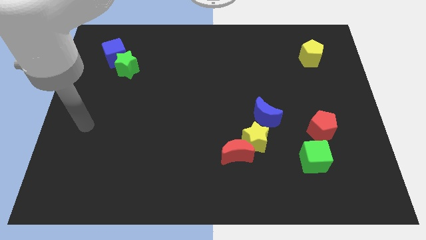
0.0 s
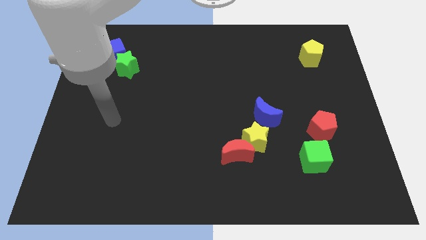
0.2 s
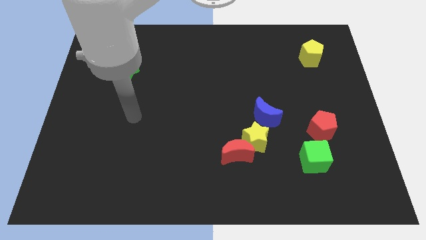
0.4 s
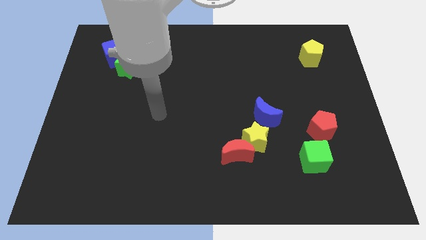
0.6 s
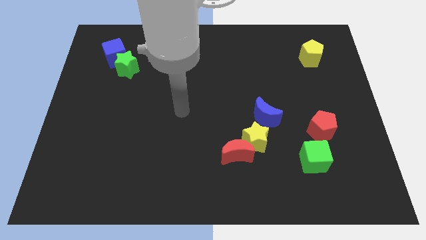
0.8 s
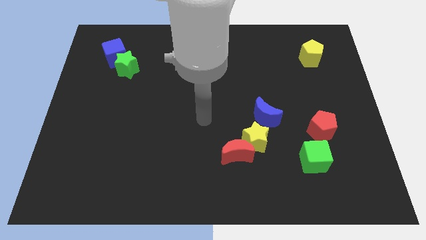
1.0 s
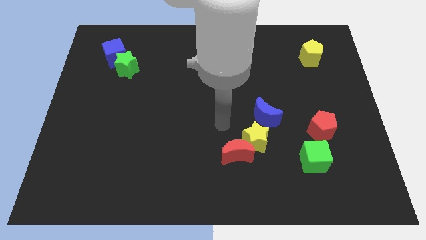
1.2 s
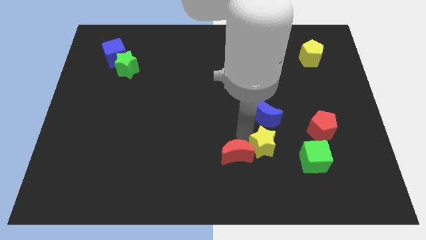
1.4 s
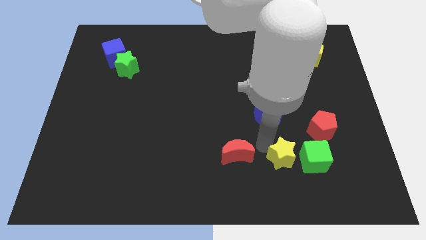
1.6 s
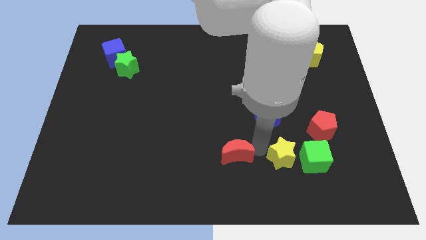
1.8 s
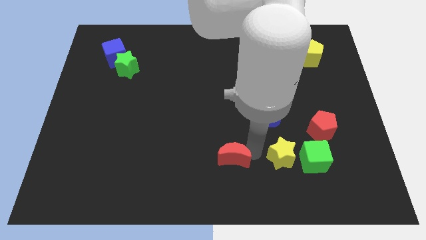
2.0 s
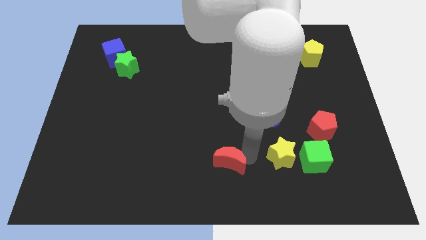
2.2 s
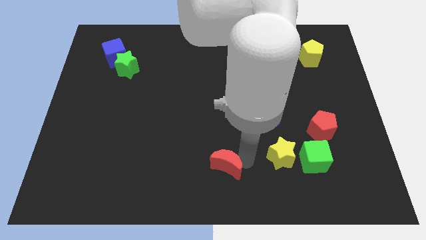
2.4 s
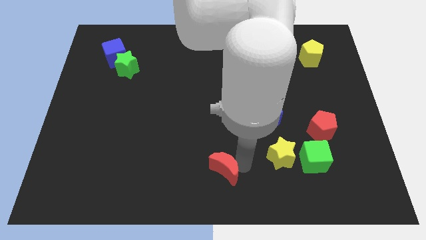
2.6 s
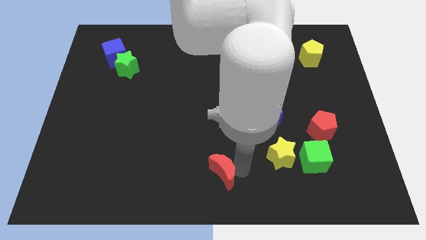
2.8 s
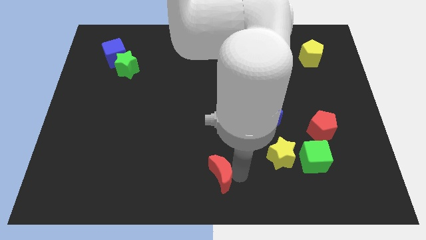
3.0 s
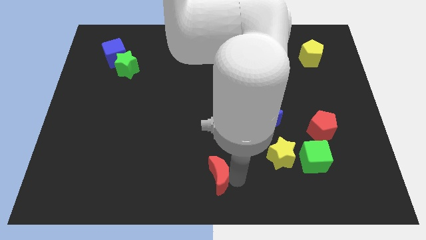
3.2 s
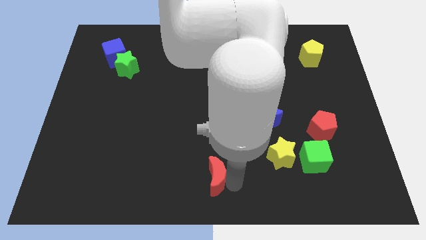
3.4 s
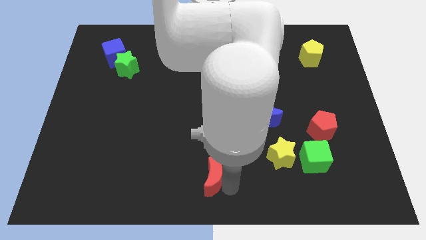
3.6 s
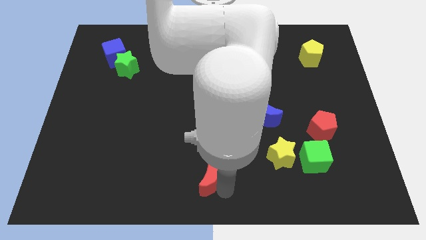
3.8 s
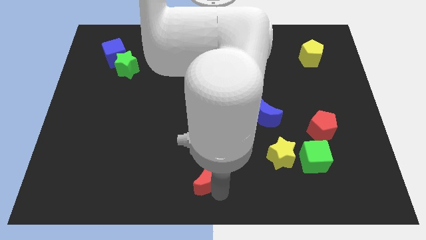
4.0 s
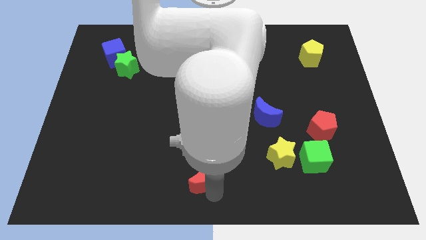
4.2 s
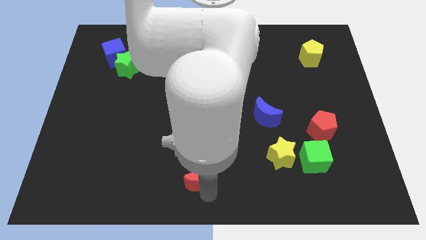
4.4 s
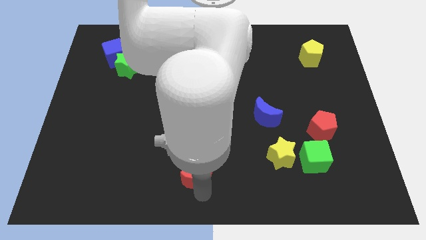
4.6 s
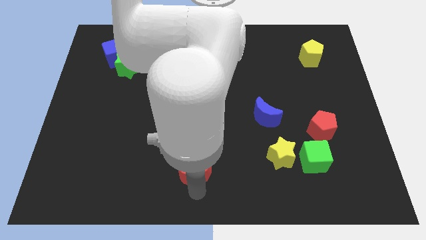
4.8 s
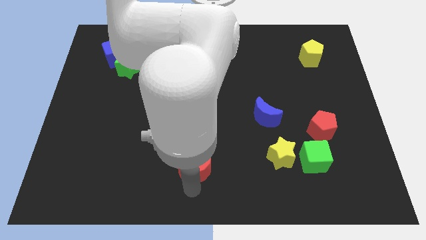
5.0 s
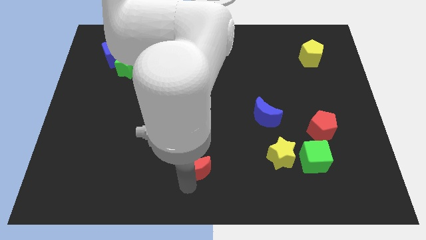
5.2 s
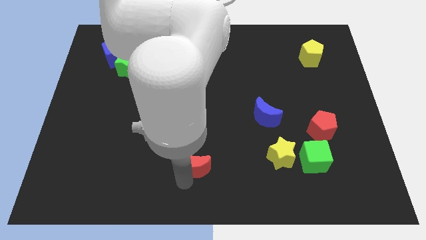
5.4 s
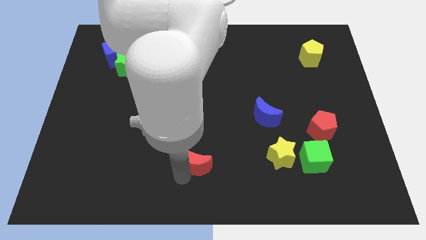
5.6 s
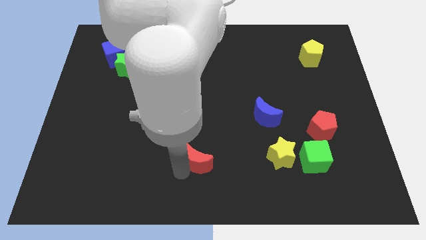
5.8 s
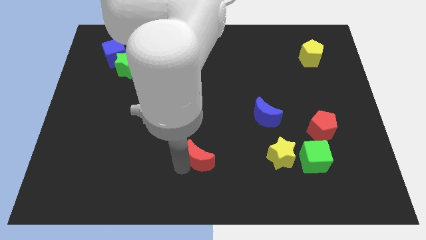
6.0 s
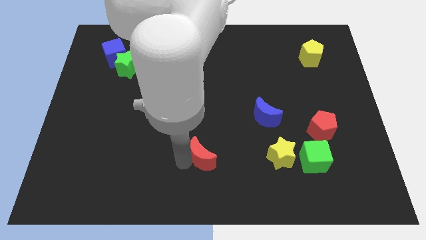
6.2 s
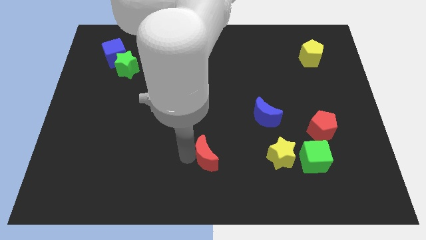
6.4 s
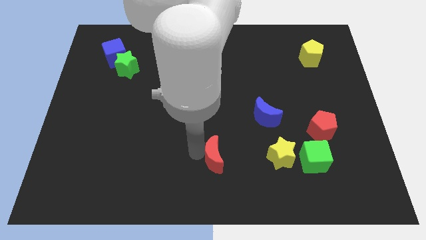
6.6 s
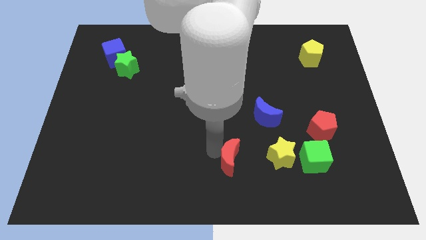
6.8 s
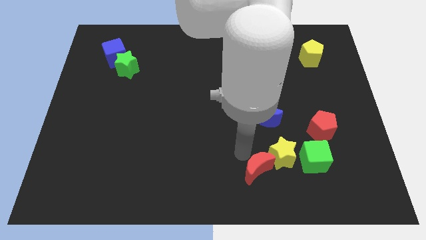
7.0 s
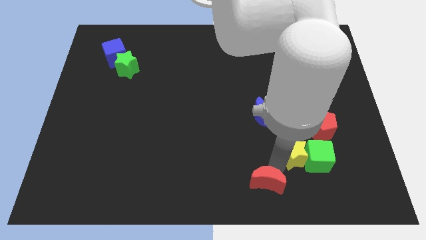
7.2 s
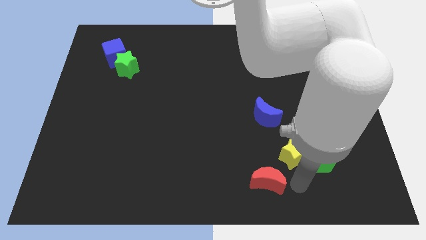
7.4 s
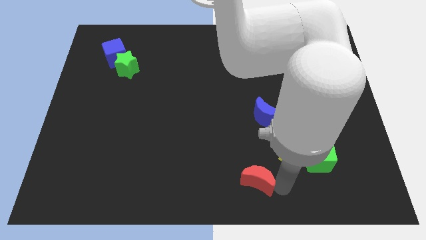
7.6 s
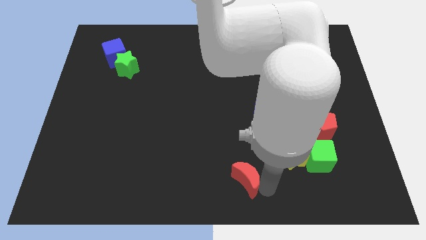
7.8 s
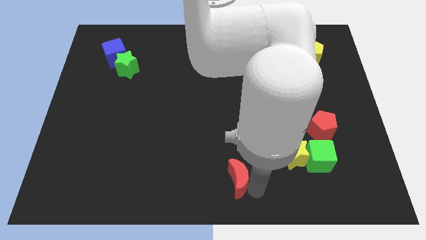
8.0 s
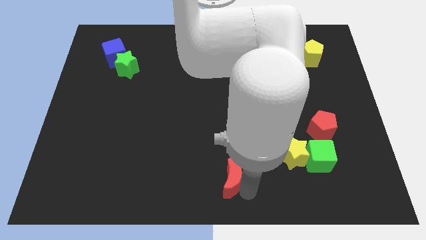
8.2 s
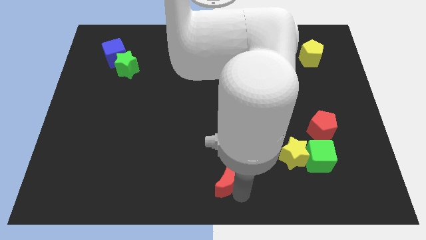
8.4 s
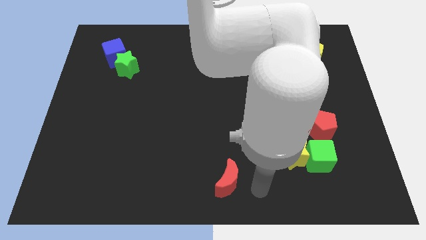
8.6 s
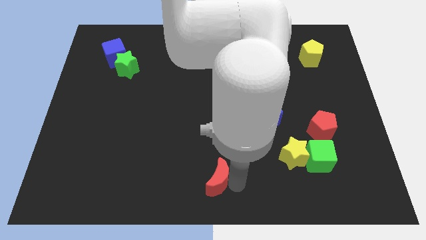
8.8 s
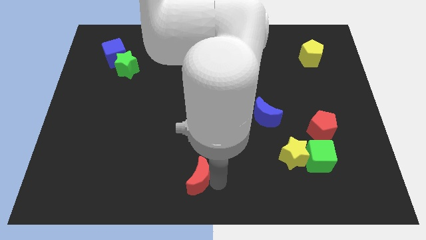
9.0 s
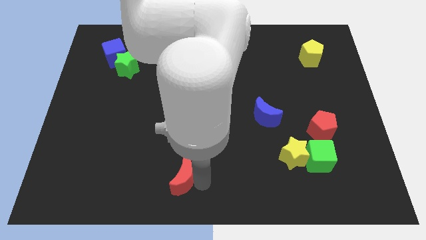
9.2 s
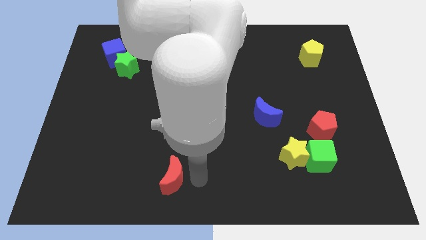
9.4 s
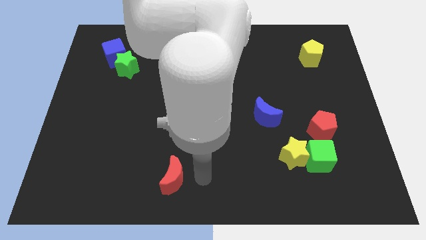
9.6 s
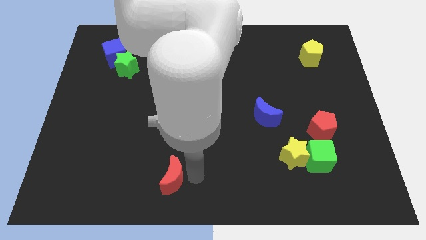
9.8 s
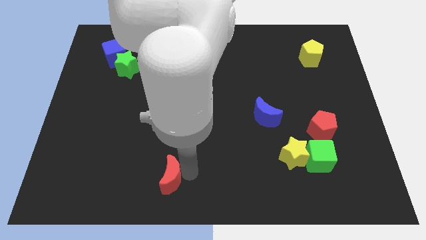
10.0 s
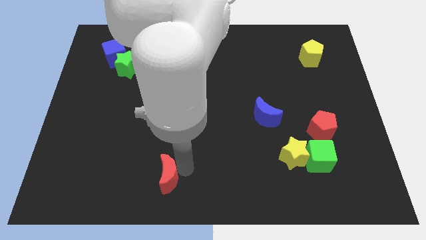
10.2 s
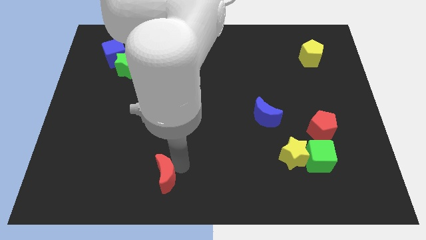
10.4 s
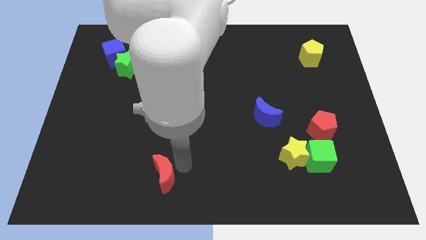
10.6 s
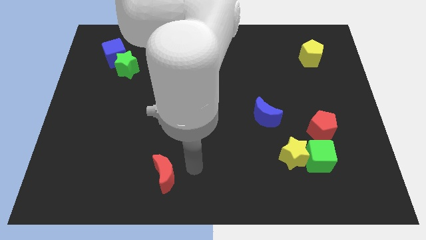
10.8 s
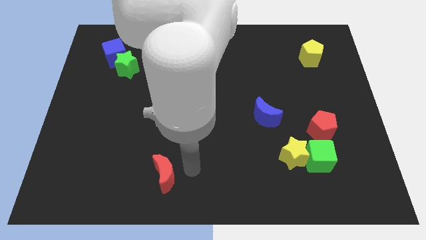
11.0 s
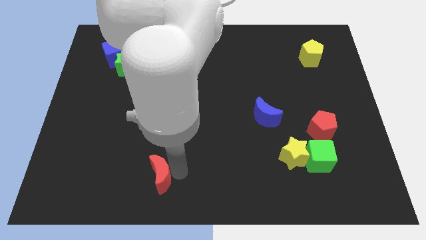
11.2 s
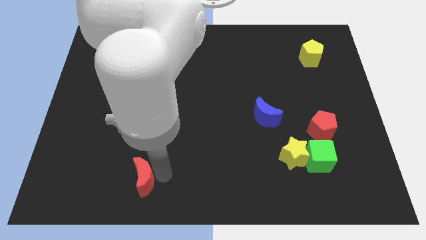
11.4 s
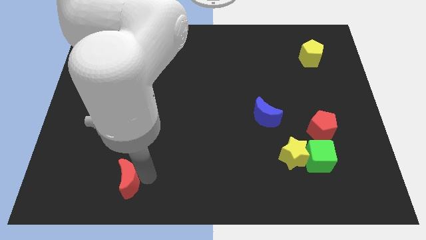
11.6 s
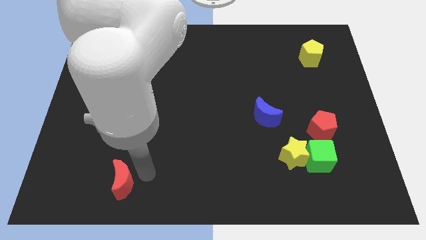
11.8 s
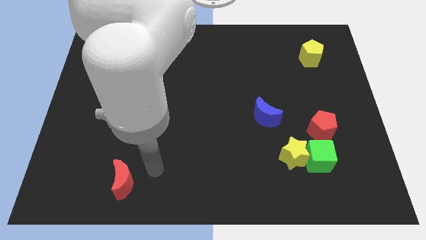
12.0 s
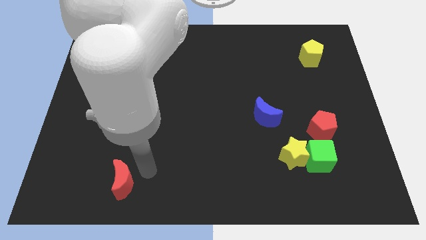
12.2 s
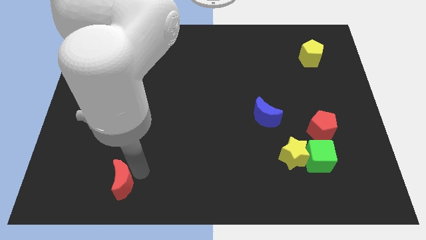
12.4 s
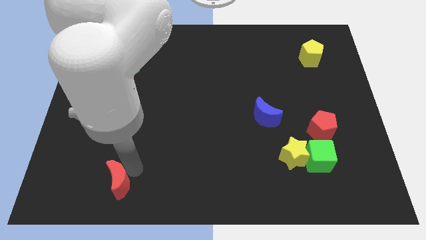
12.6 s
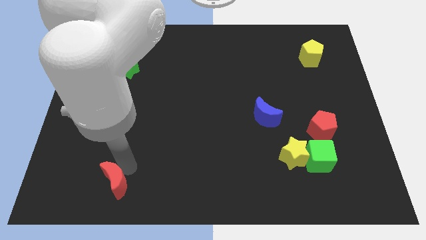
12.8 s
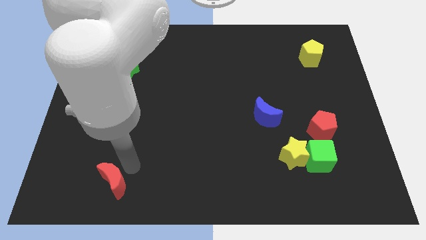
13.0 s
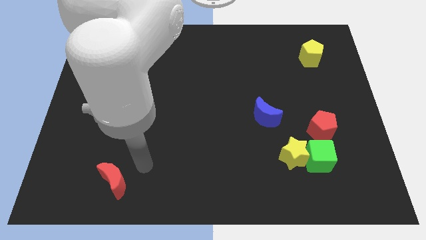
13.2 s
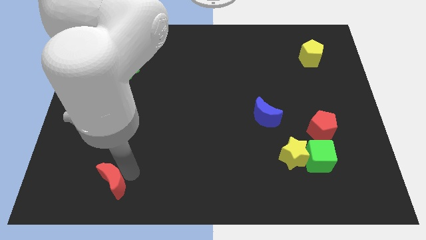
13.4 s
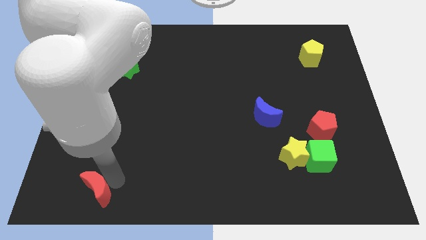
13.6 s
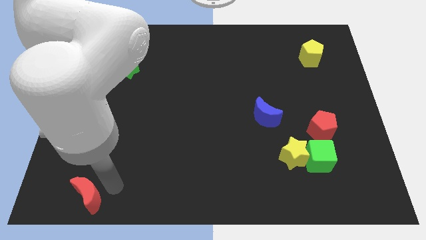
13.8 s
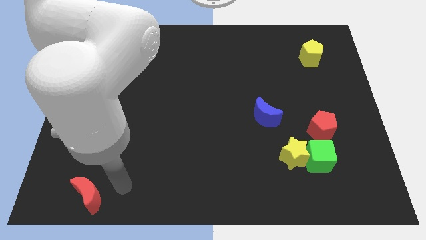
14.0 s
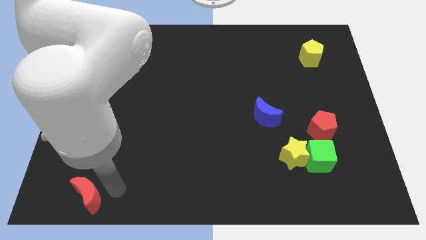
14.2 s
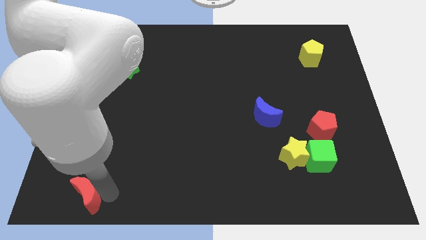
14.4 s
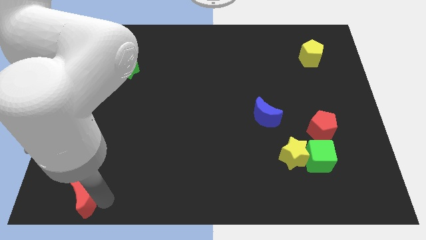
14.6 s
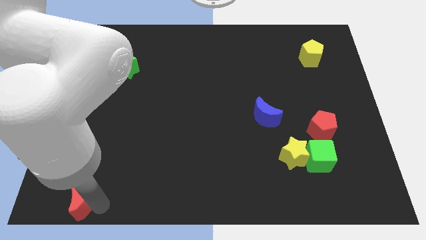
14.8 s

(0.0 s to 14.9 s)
push the red moon to the bottom left corner
